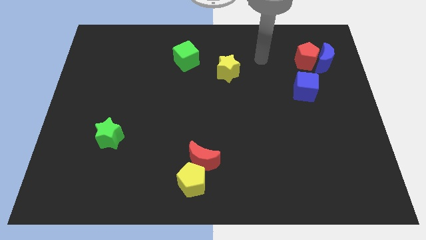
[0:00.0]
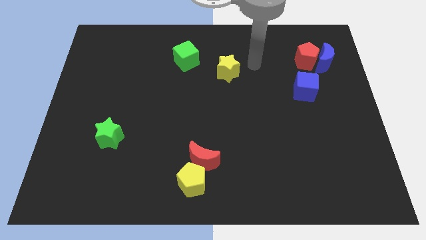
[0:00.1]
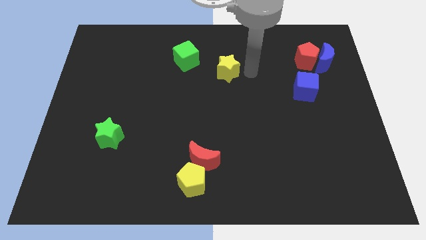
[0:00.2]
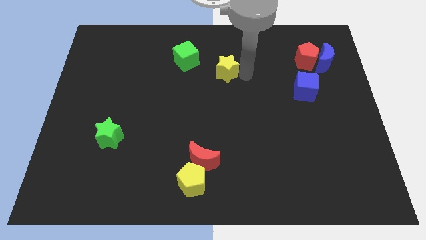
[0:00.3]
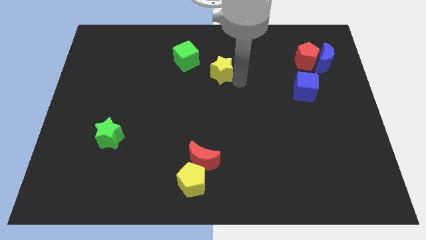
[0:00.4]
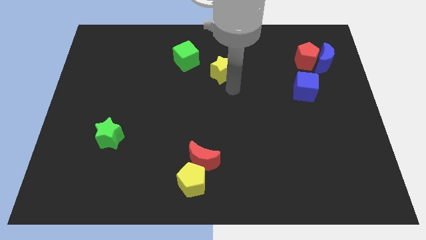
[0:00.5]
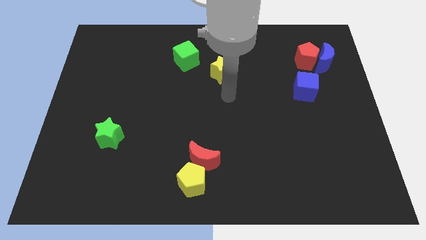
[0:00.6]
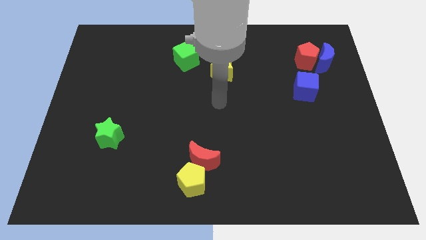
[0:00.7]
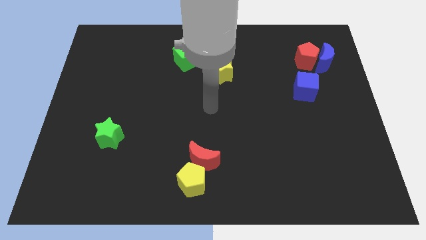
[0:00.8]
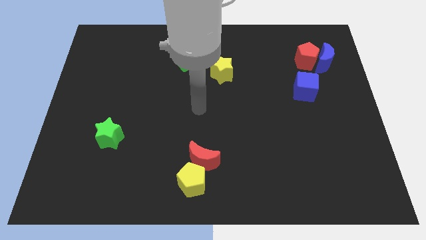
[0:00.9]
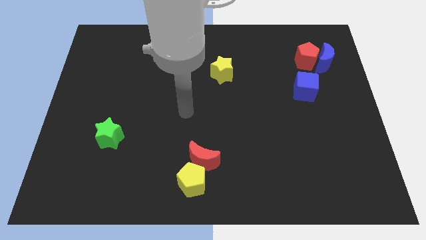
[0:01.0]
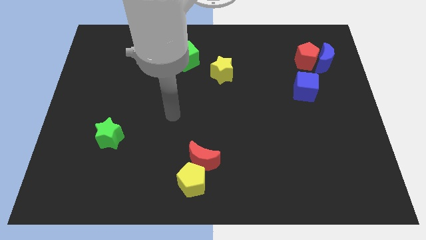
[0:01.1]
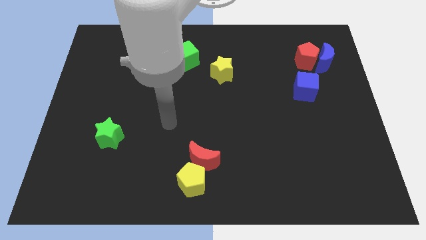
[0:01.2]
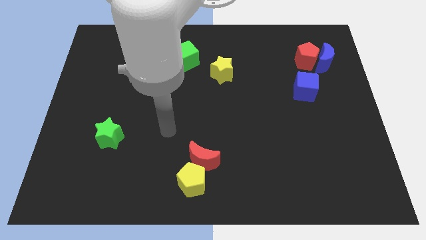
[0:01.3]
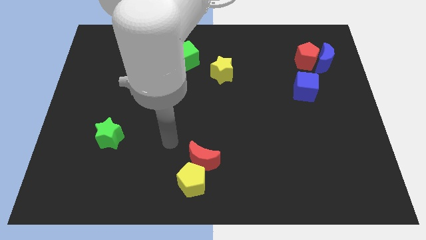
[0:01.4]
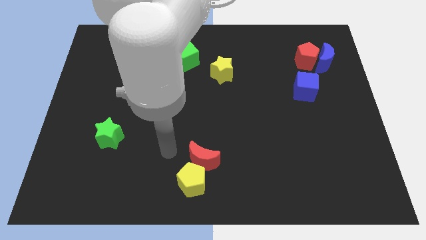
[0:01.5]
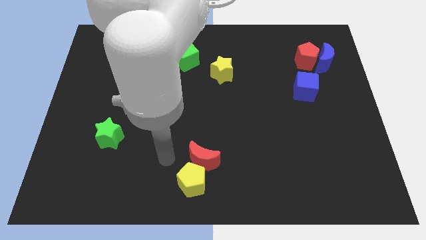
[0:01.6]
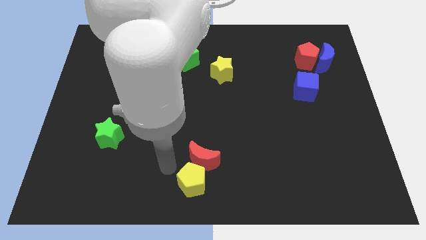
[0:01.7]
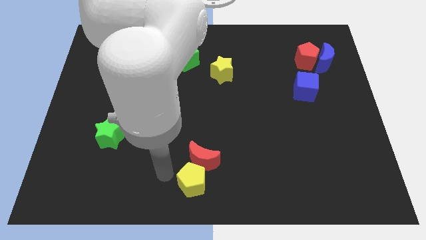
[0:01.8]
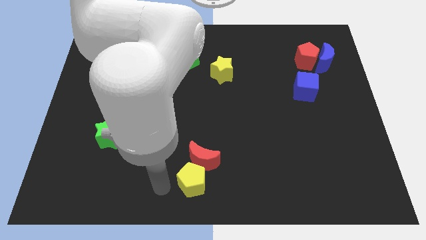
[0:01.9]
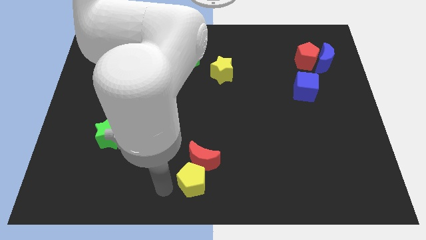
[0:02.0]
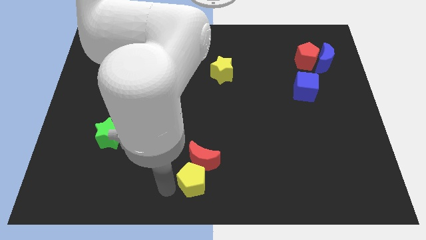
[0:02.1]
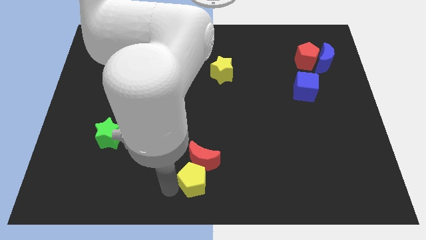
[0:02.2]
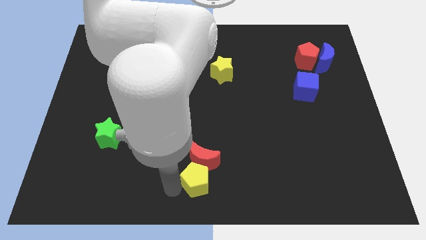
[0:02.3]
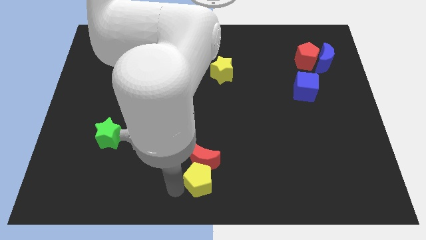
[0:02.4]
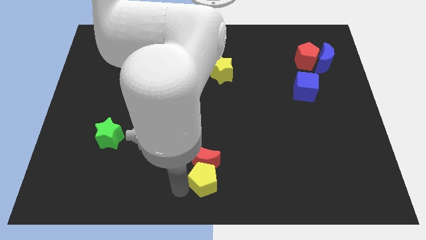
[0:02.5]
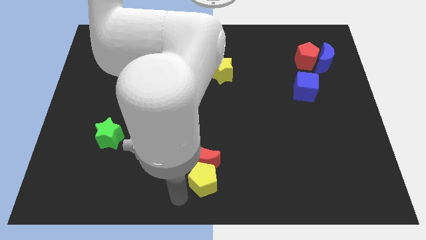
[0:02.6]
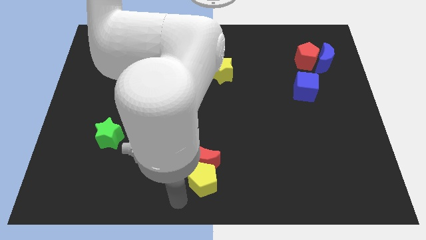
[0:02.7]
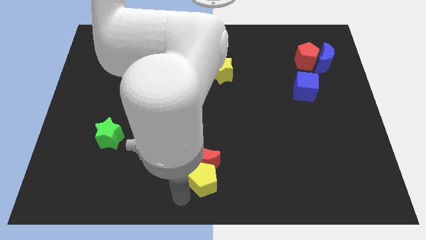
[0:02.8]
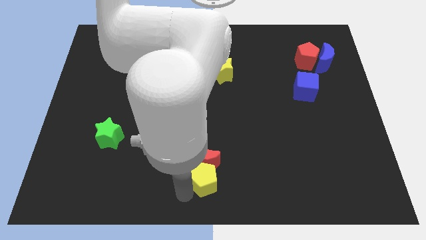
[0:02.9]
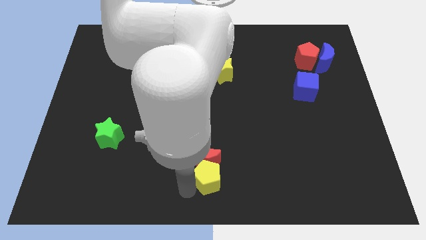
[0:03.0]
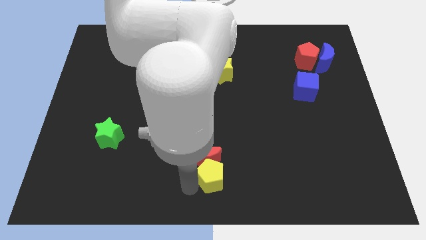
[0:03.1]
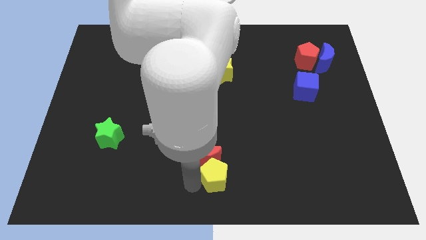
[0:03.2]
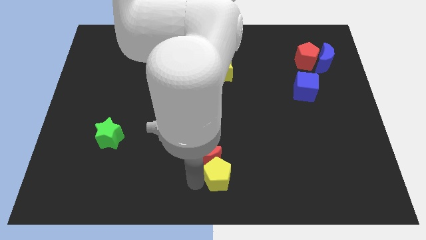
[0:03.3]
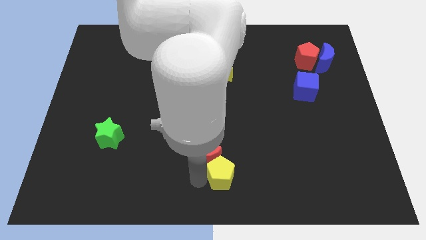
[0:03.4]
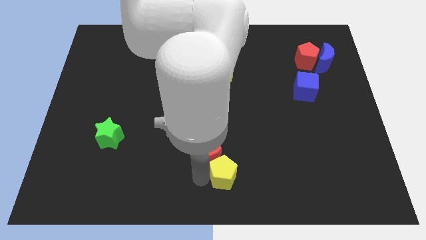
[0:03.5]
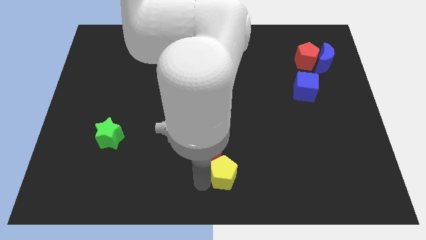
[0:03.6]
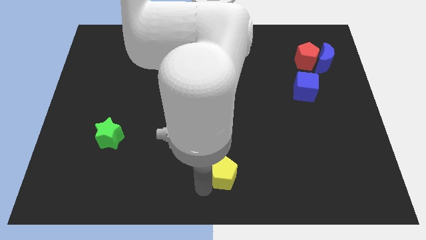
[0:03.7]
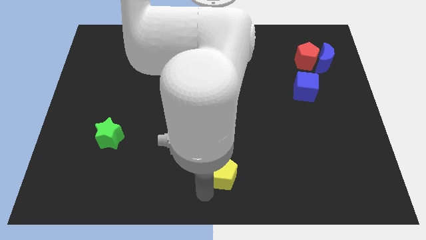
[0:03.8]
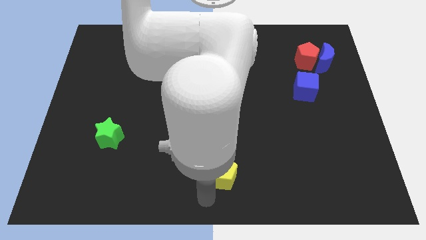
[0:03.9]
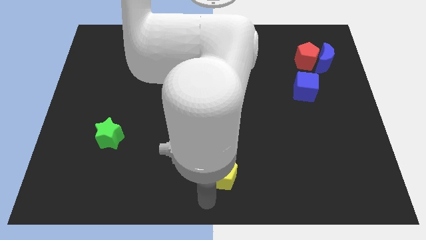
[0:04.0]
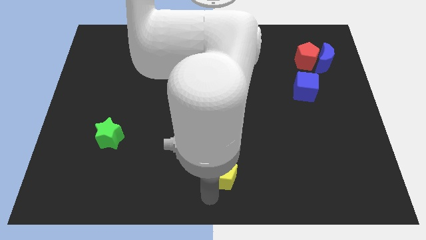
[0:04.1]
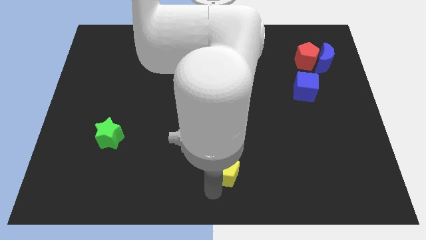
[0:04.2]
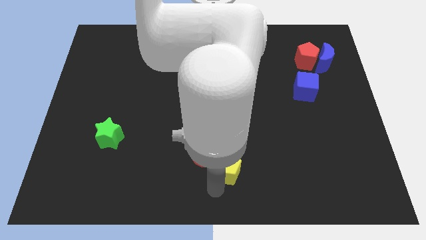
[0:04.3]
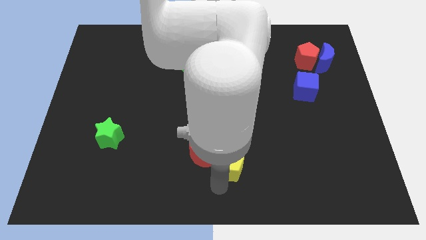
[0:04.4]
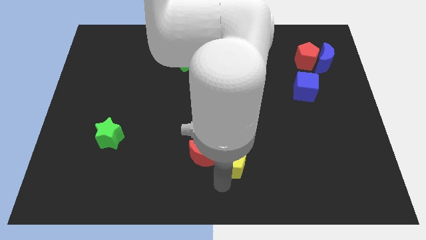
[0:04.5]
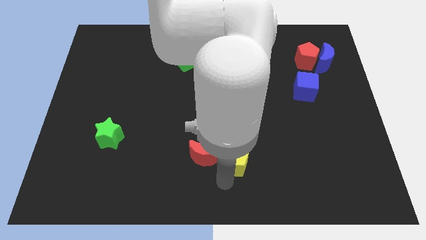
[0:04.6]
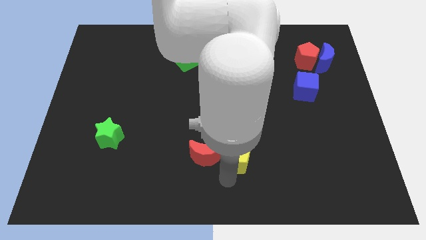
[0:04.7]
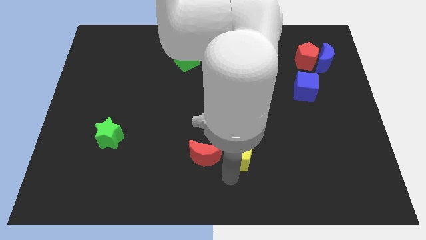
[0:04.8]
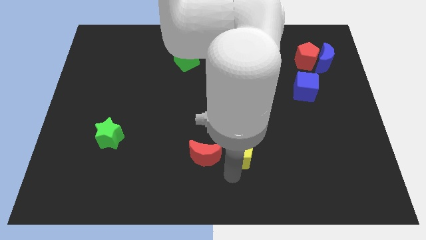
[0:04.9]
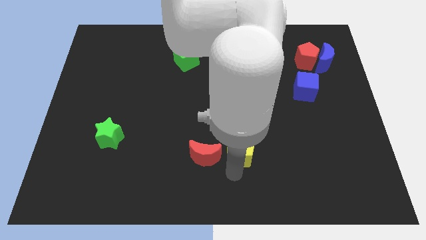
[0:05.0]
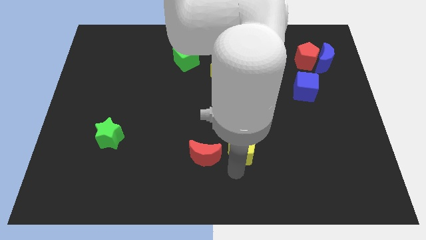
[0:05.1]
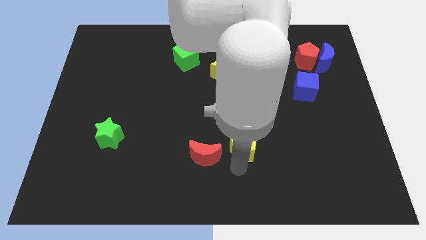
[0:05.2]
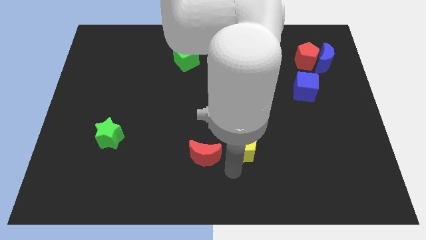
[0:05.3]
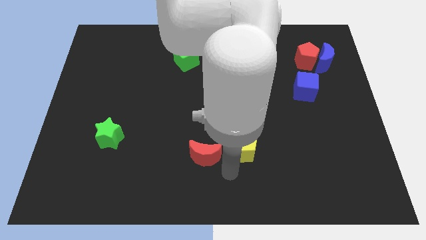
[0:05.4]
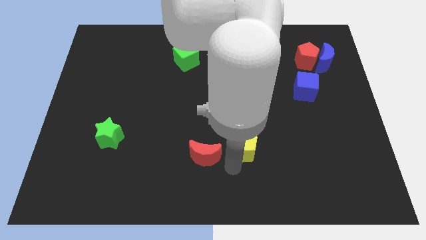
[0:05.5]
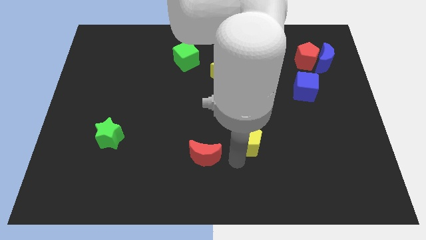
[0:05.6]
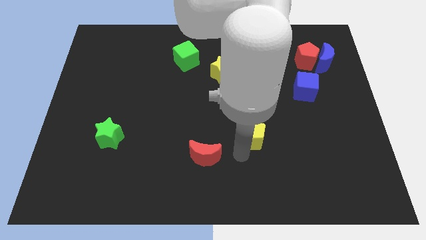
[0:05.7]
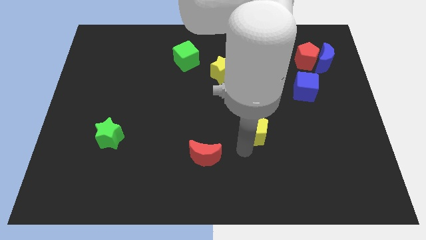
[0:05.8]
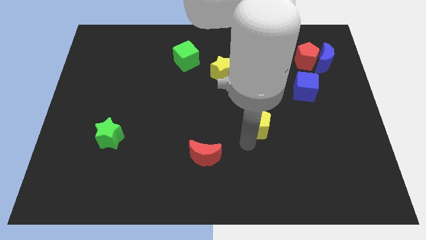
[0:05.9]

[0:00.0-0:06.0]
move the yellow pentagon diagonally upwards and to the right

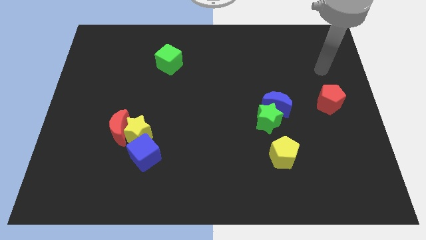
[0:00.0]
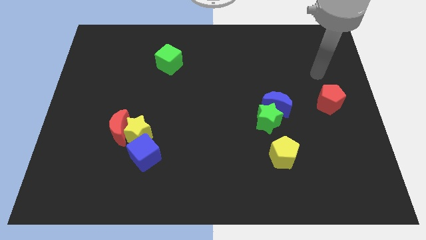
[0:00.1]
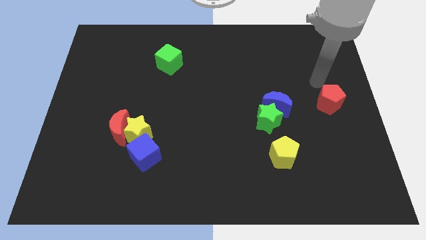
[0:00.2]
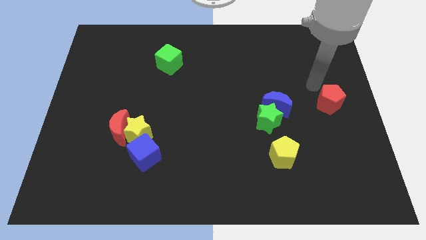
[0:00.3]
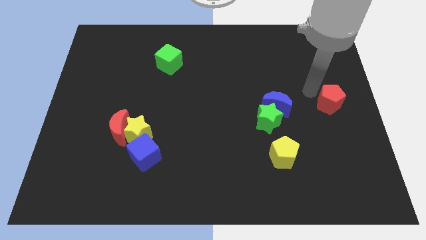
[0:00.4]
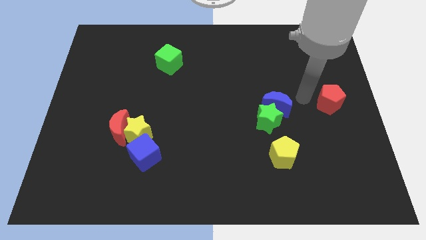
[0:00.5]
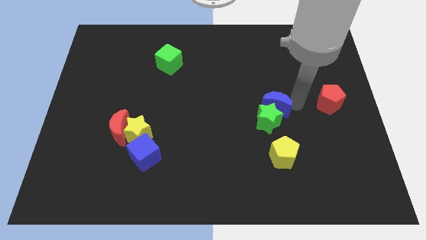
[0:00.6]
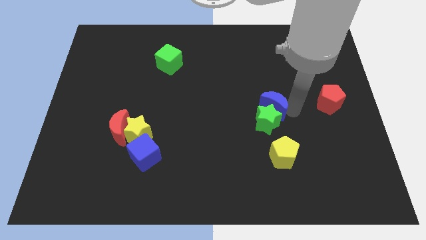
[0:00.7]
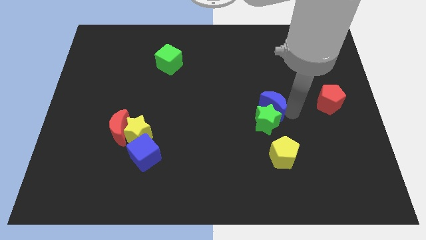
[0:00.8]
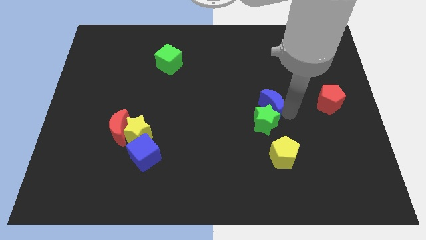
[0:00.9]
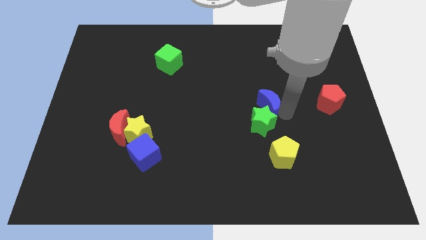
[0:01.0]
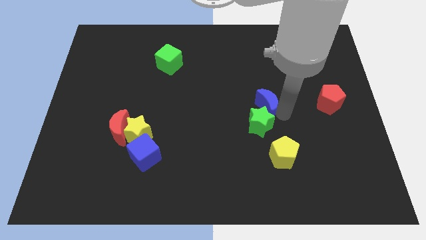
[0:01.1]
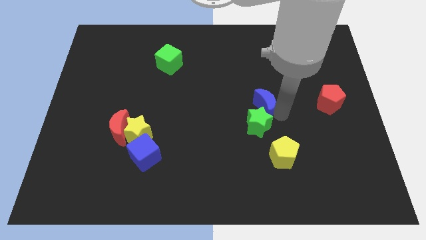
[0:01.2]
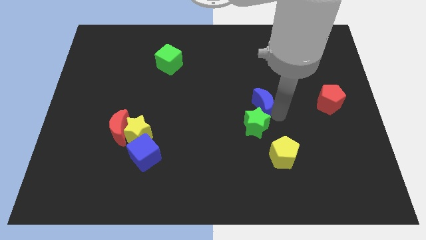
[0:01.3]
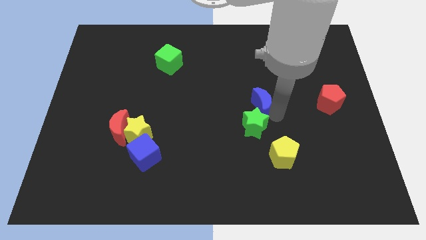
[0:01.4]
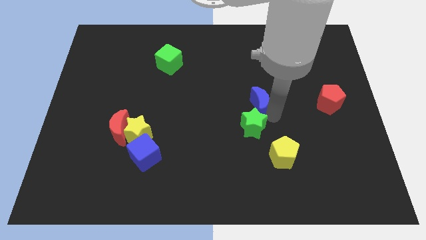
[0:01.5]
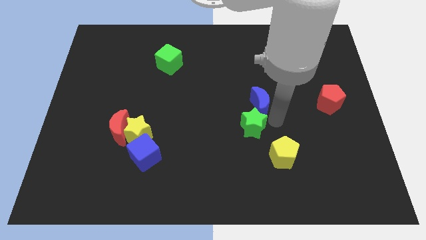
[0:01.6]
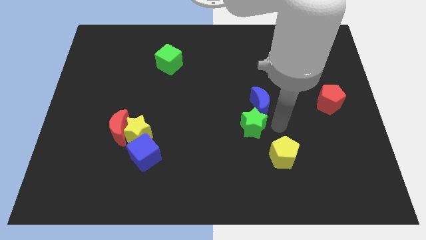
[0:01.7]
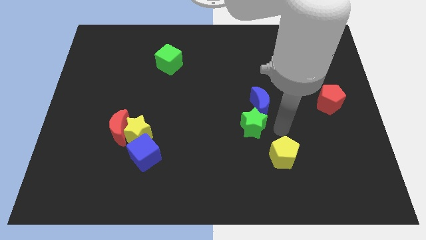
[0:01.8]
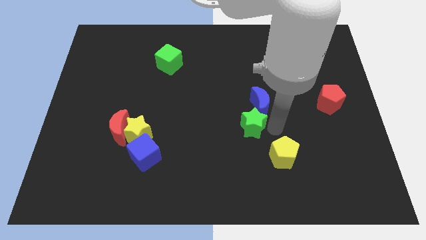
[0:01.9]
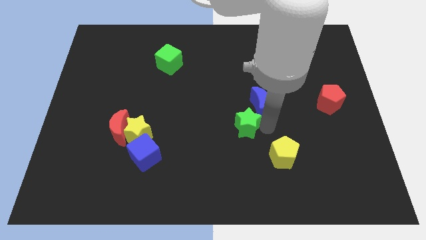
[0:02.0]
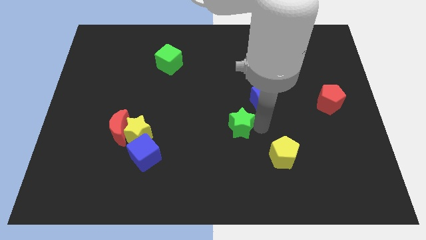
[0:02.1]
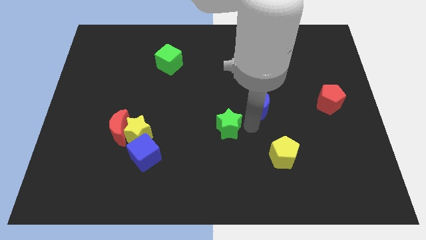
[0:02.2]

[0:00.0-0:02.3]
slightly slide the green star to the left
